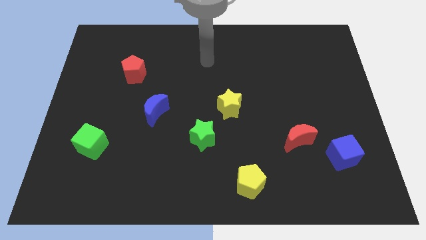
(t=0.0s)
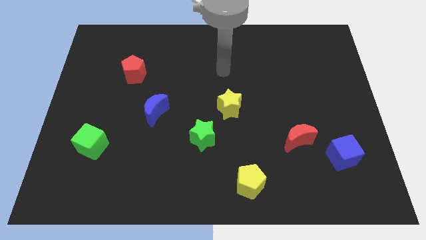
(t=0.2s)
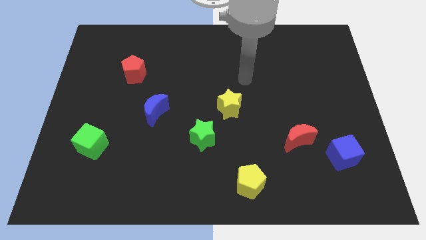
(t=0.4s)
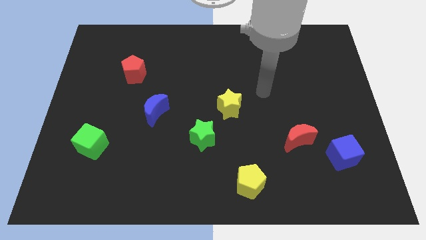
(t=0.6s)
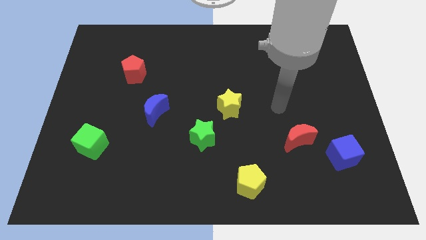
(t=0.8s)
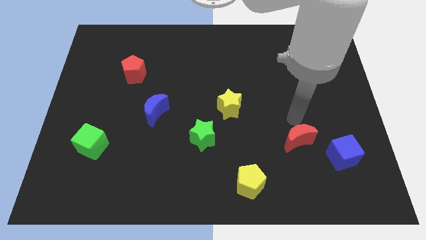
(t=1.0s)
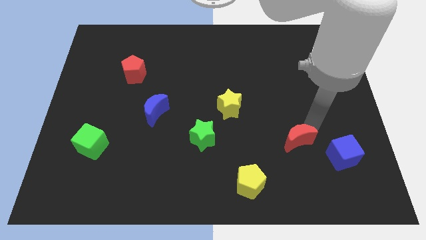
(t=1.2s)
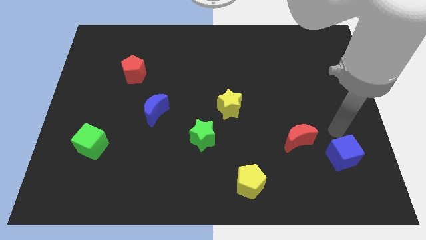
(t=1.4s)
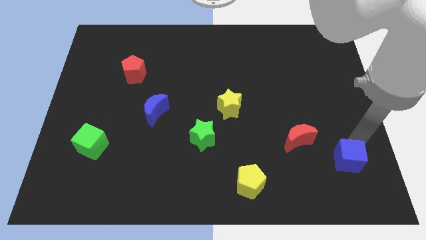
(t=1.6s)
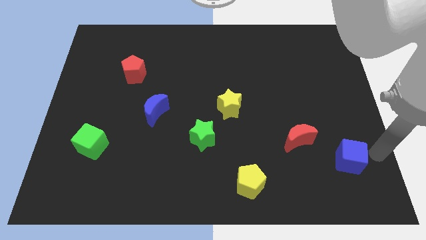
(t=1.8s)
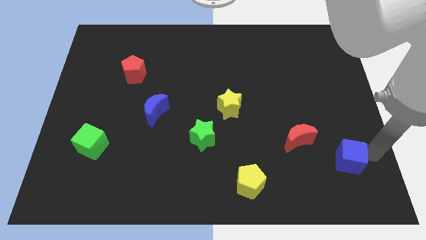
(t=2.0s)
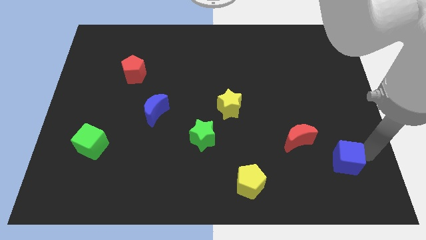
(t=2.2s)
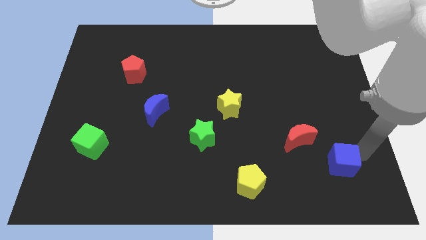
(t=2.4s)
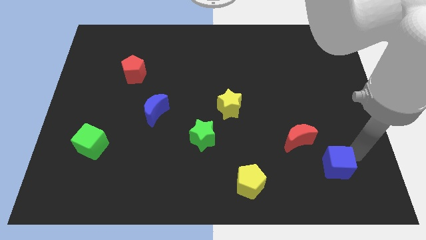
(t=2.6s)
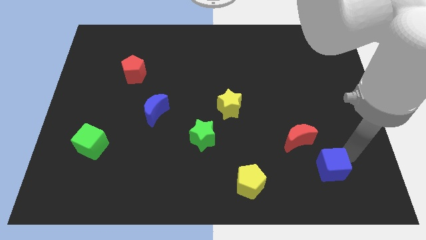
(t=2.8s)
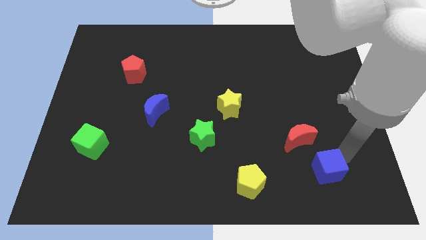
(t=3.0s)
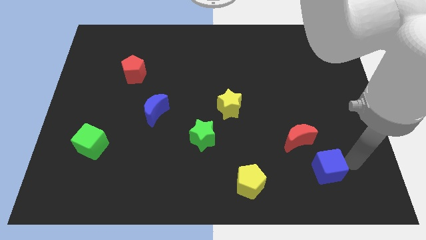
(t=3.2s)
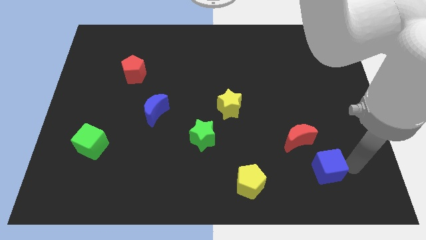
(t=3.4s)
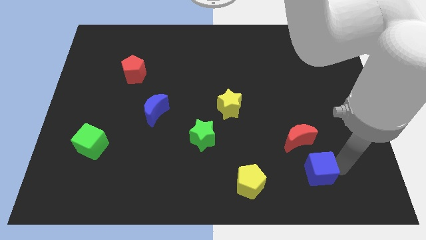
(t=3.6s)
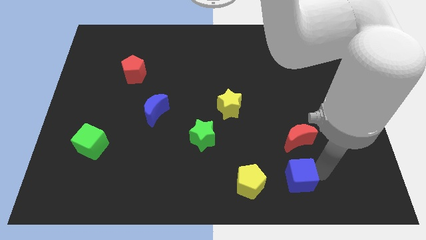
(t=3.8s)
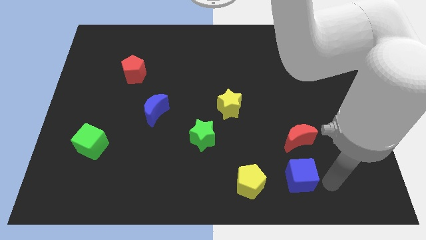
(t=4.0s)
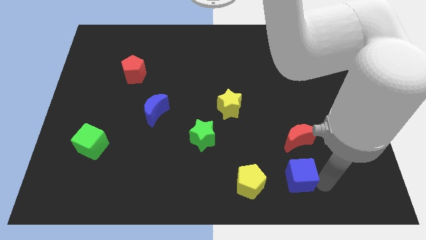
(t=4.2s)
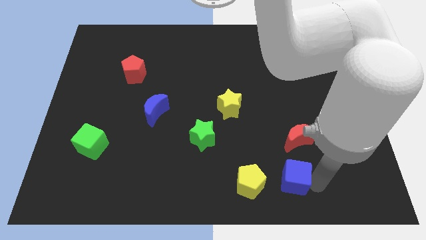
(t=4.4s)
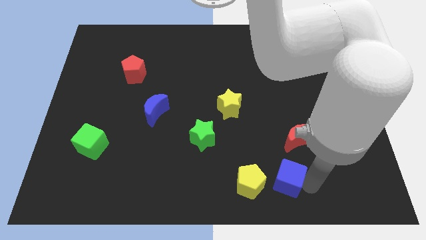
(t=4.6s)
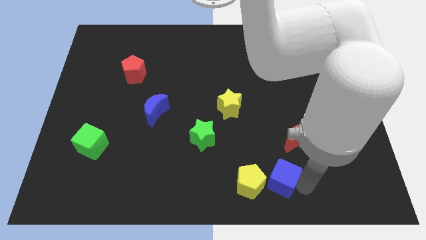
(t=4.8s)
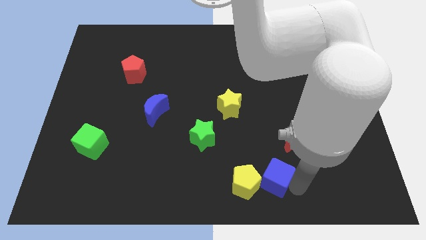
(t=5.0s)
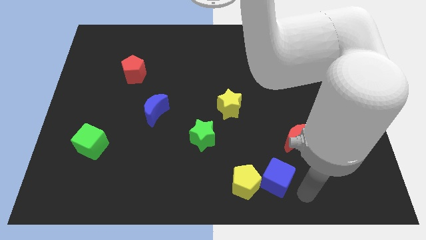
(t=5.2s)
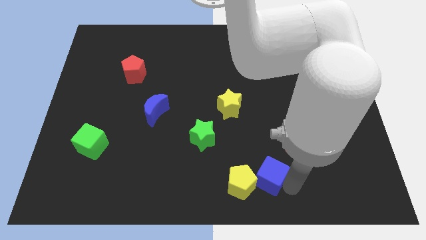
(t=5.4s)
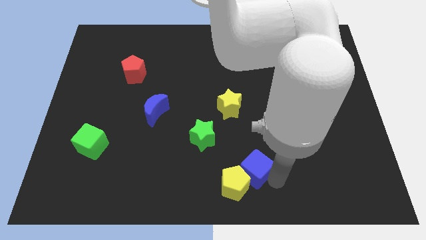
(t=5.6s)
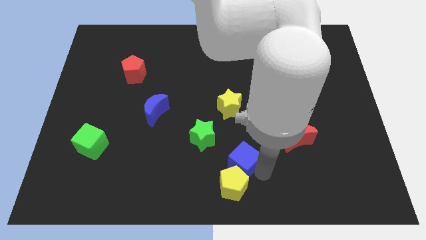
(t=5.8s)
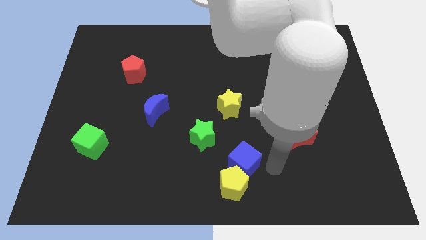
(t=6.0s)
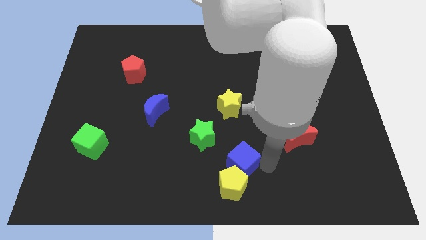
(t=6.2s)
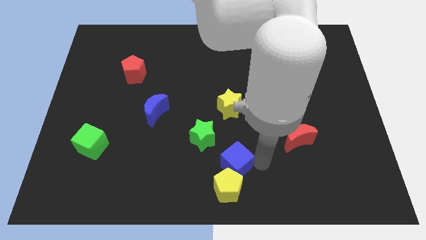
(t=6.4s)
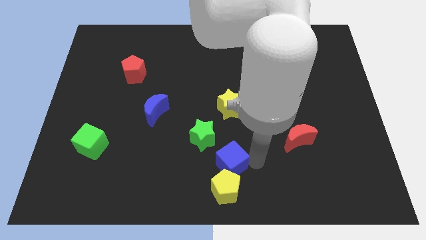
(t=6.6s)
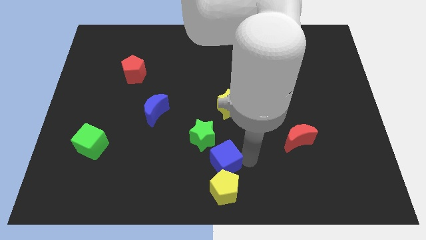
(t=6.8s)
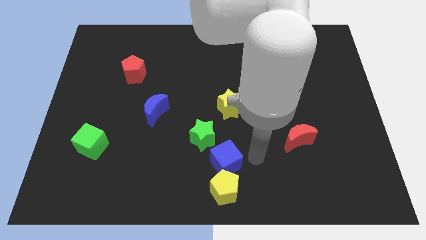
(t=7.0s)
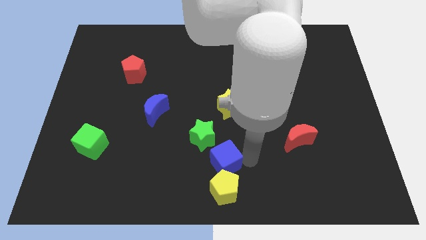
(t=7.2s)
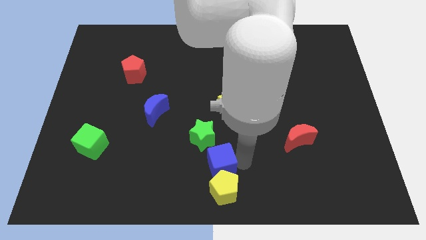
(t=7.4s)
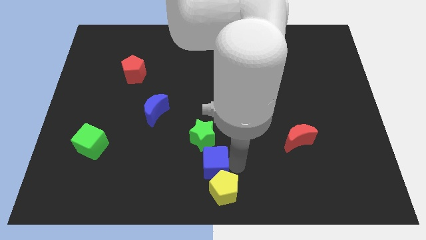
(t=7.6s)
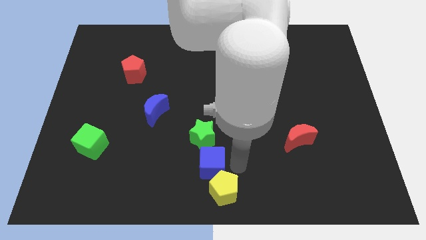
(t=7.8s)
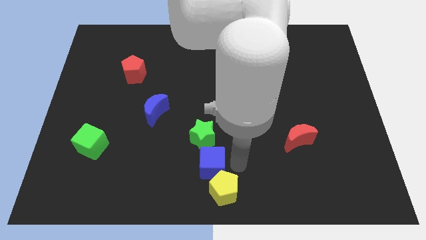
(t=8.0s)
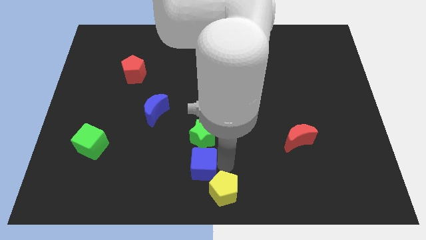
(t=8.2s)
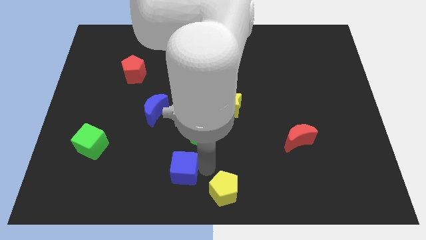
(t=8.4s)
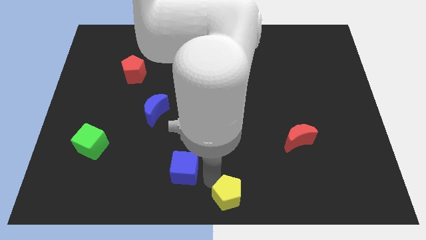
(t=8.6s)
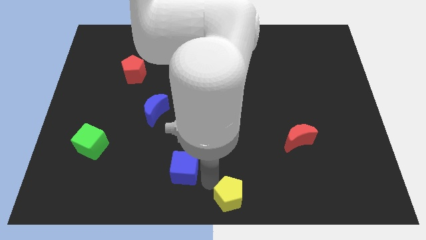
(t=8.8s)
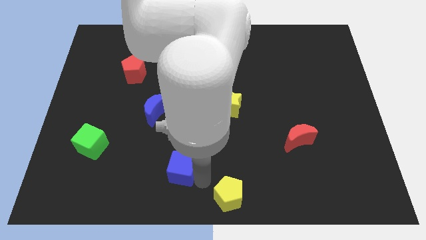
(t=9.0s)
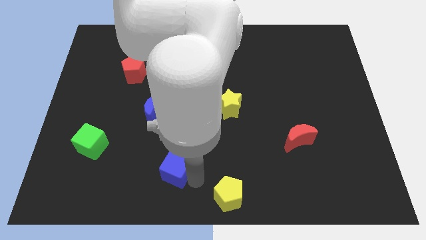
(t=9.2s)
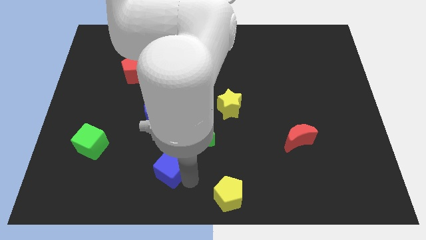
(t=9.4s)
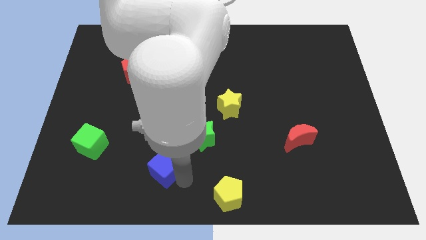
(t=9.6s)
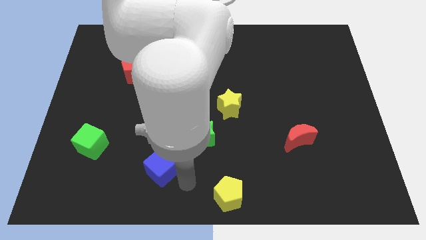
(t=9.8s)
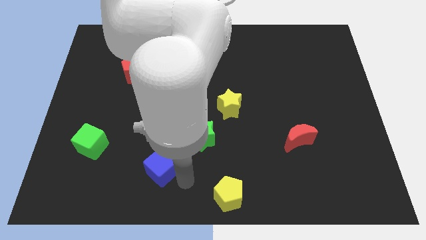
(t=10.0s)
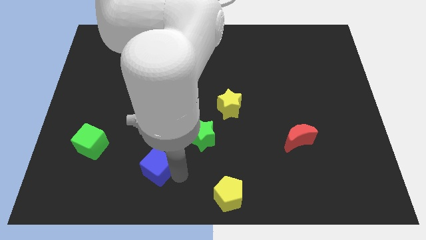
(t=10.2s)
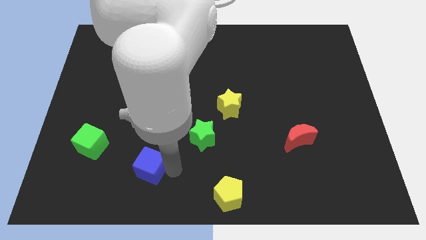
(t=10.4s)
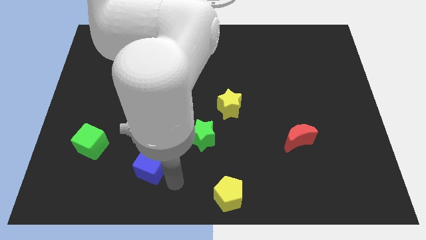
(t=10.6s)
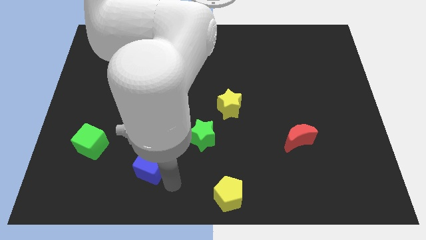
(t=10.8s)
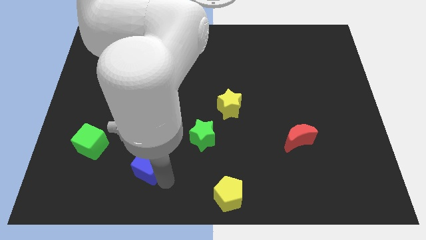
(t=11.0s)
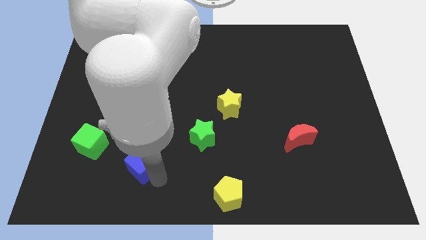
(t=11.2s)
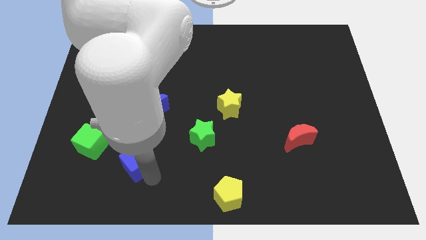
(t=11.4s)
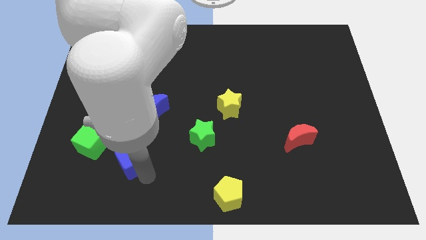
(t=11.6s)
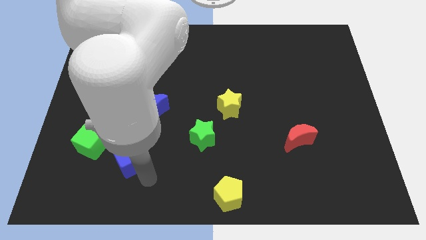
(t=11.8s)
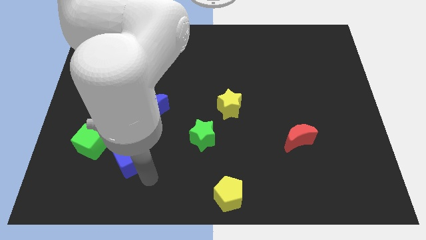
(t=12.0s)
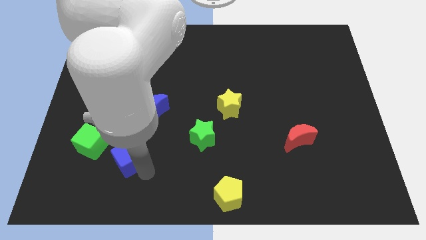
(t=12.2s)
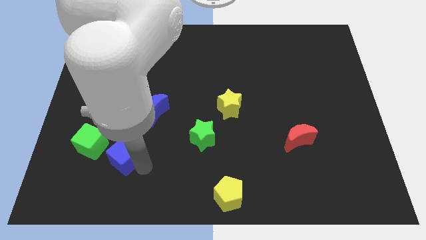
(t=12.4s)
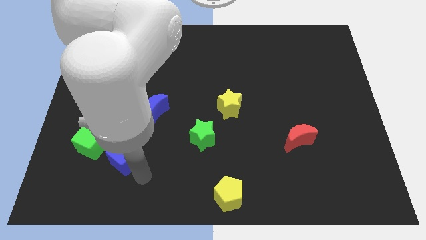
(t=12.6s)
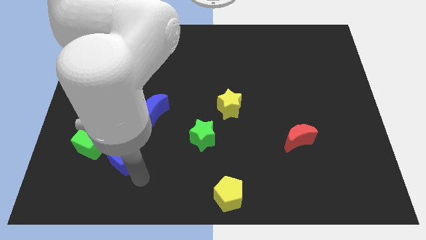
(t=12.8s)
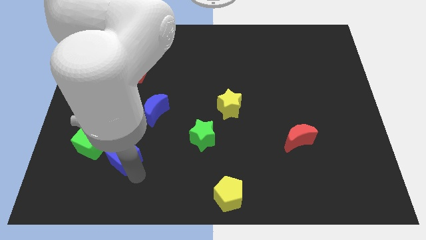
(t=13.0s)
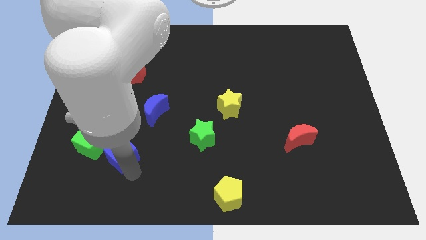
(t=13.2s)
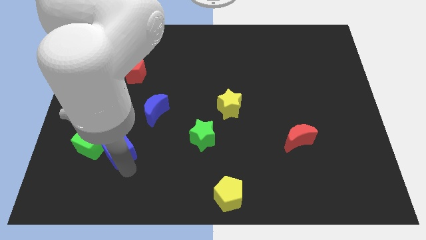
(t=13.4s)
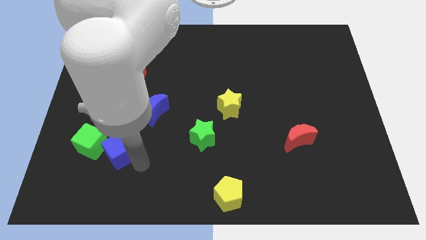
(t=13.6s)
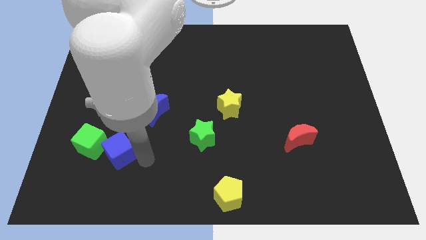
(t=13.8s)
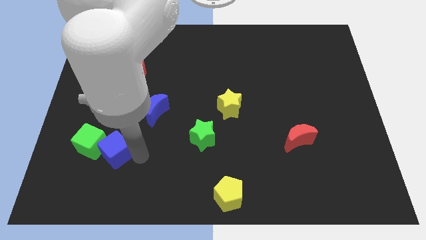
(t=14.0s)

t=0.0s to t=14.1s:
move the blue cube towards the green cube
